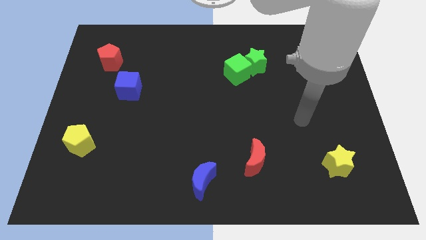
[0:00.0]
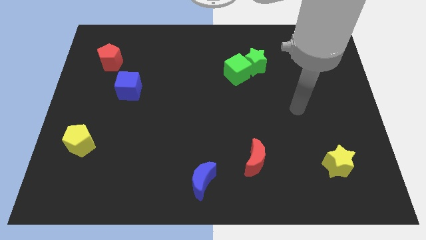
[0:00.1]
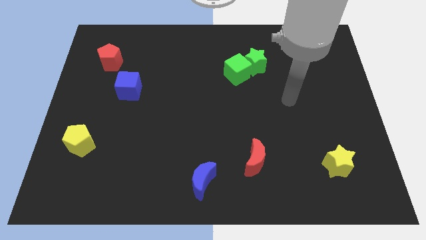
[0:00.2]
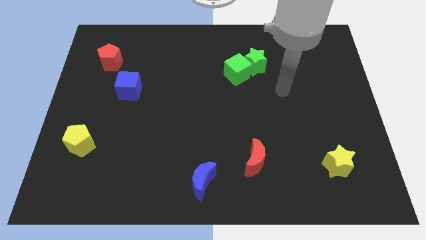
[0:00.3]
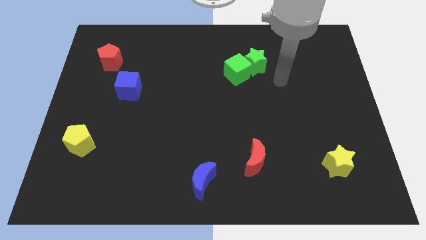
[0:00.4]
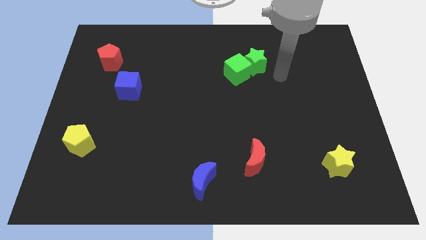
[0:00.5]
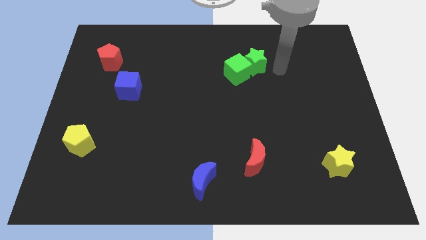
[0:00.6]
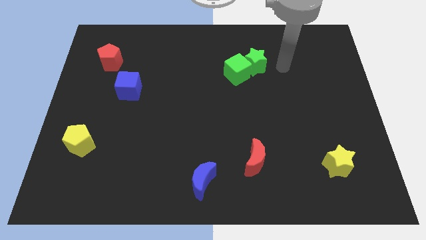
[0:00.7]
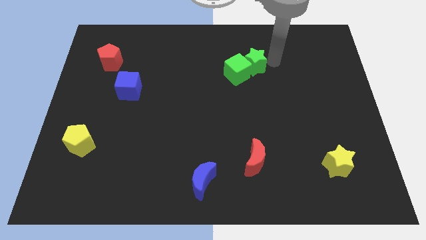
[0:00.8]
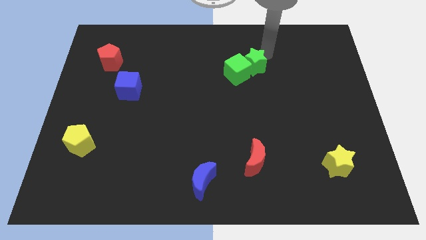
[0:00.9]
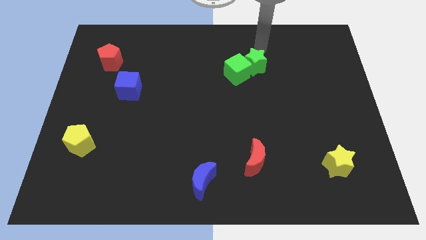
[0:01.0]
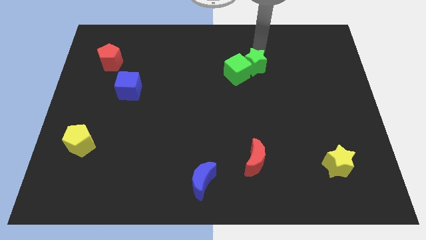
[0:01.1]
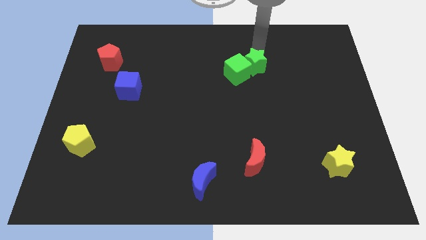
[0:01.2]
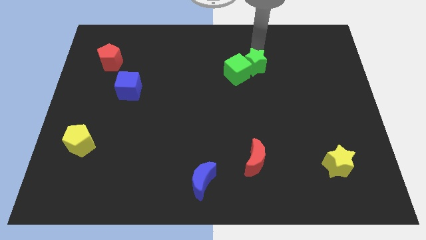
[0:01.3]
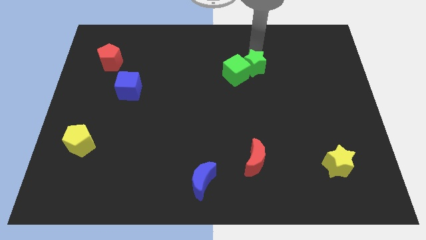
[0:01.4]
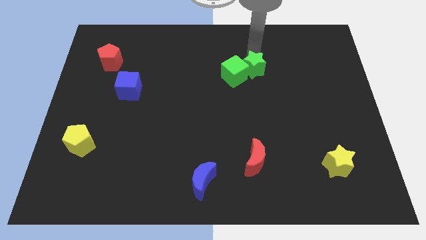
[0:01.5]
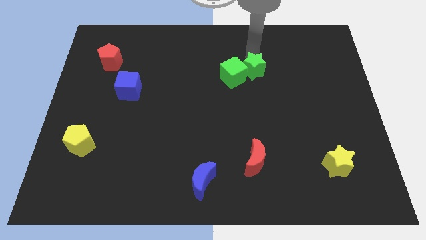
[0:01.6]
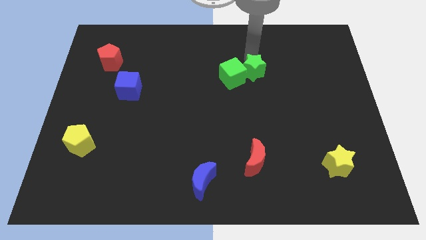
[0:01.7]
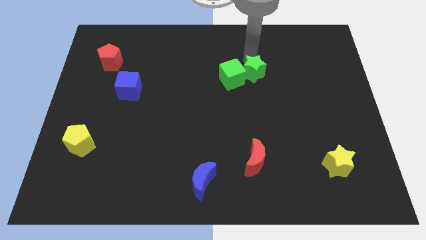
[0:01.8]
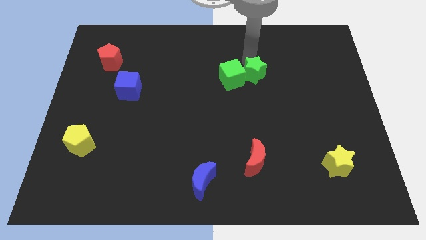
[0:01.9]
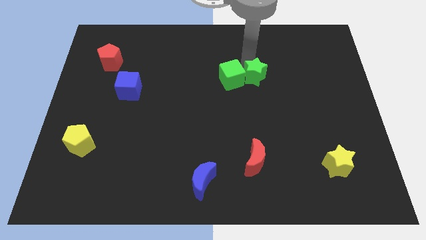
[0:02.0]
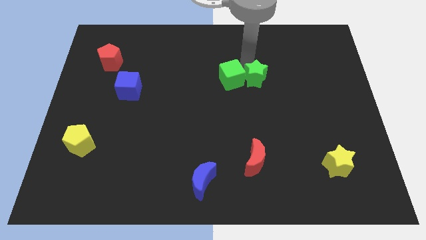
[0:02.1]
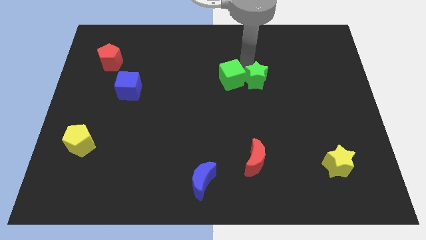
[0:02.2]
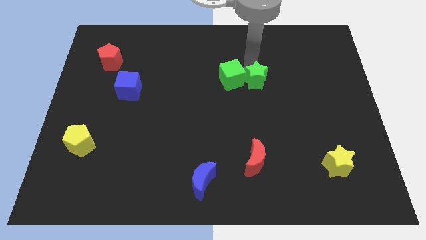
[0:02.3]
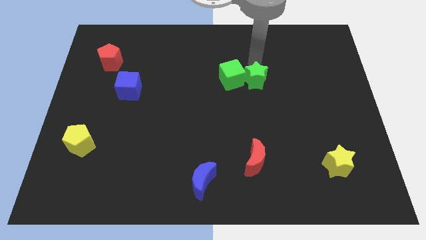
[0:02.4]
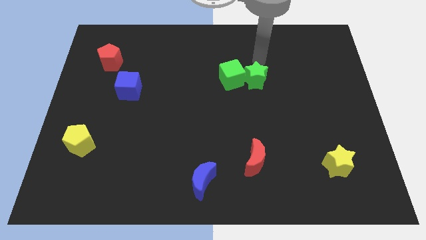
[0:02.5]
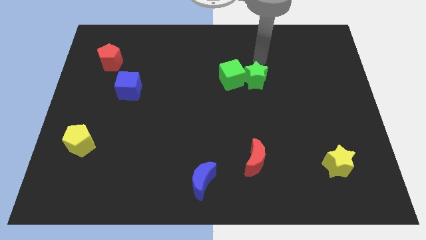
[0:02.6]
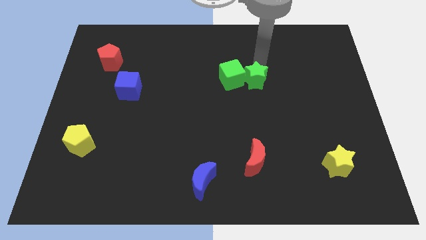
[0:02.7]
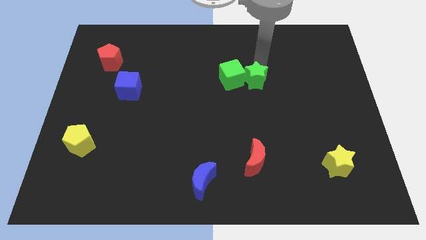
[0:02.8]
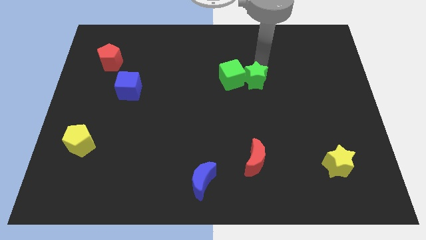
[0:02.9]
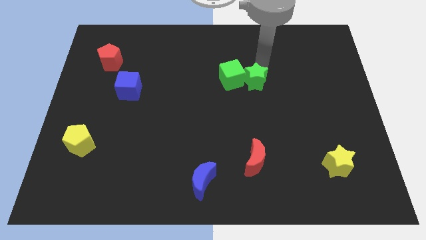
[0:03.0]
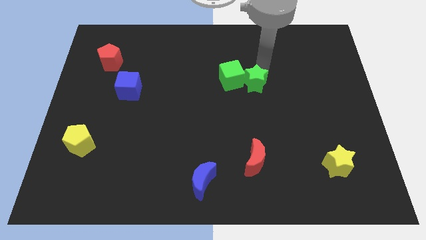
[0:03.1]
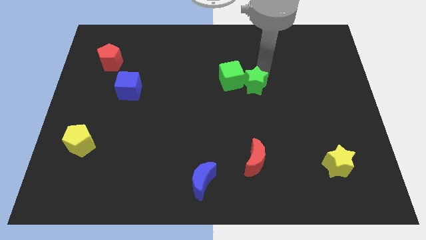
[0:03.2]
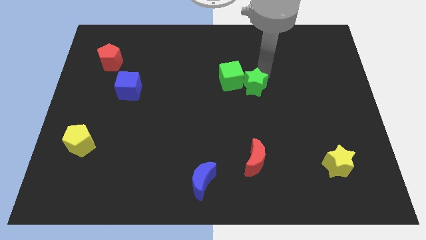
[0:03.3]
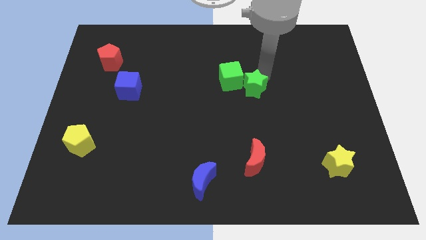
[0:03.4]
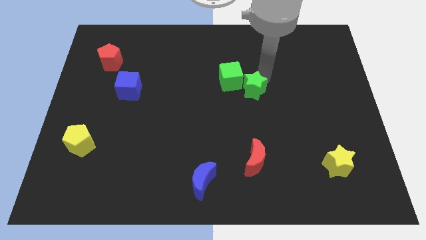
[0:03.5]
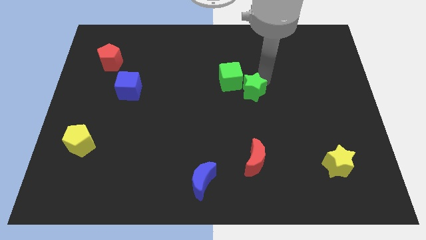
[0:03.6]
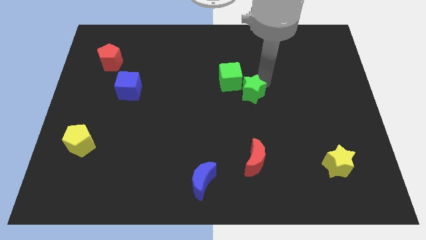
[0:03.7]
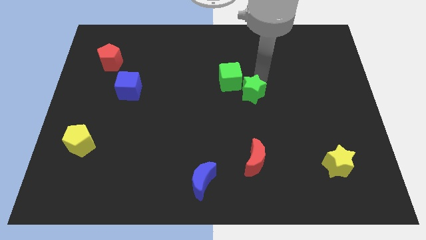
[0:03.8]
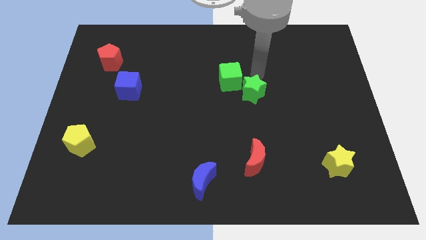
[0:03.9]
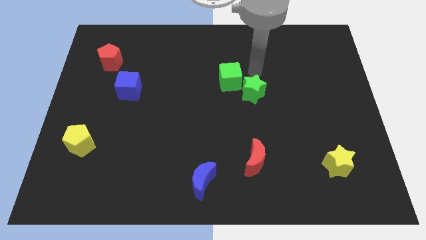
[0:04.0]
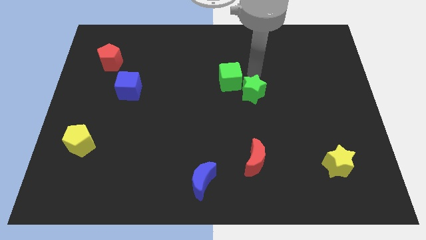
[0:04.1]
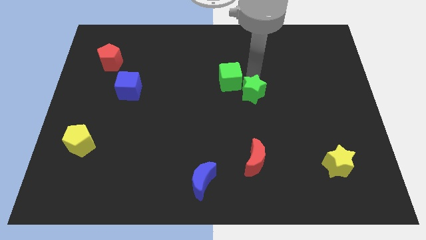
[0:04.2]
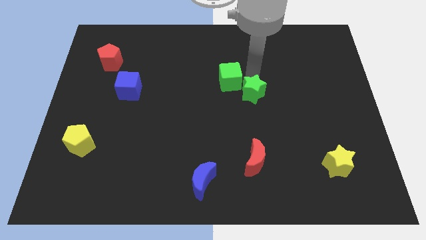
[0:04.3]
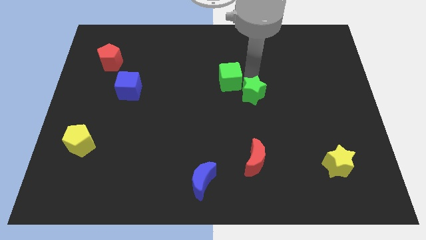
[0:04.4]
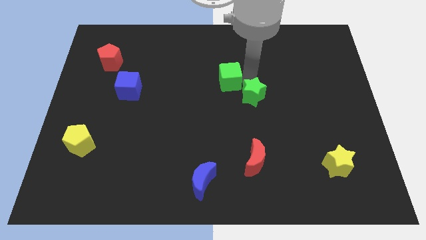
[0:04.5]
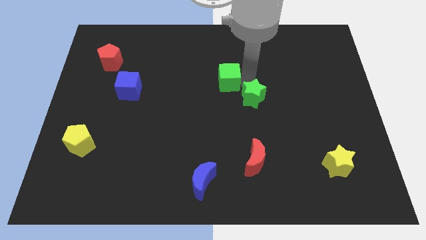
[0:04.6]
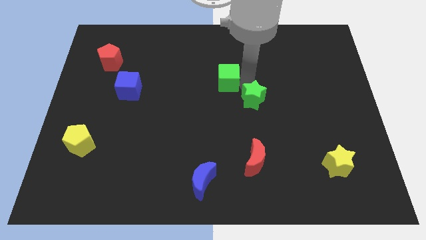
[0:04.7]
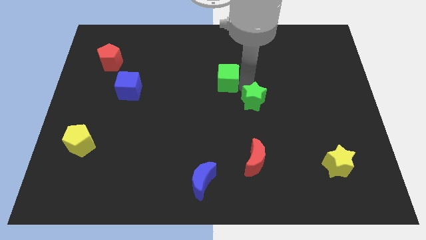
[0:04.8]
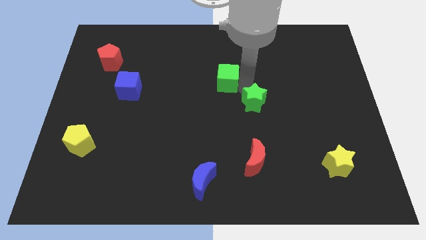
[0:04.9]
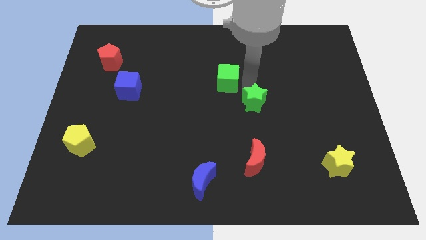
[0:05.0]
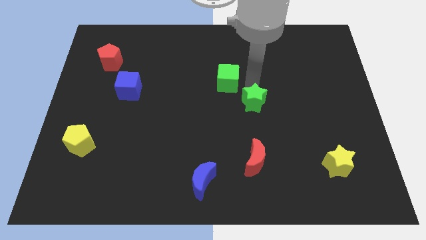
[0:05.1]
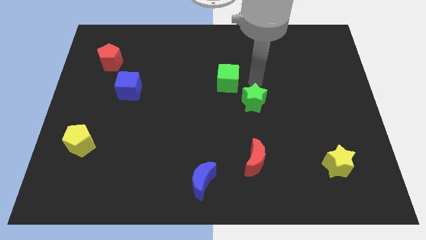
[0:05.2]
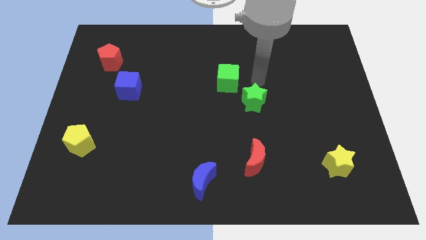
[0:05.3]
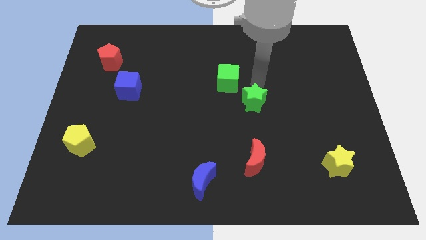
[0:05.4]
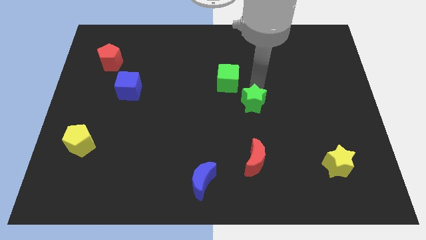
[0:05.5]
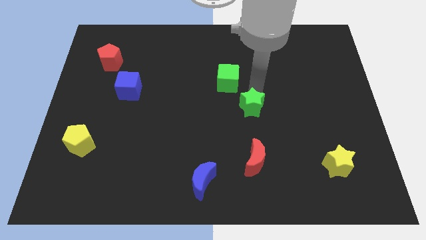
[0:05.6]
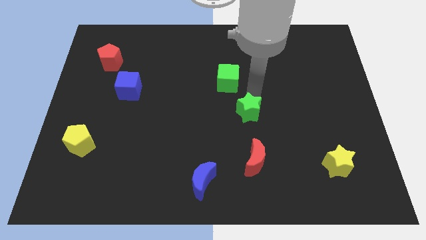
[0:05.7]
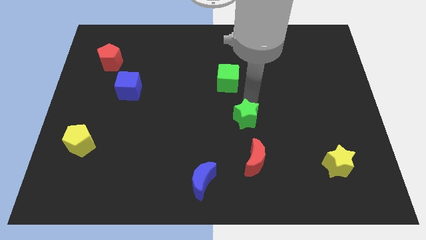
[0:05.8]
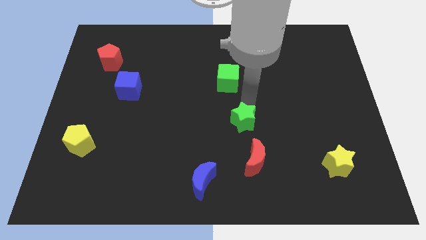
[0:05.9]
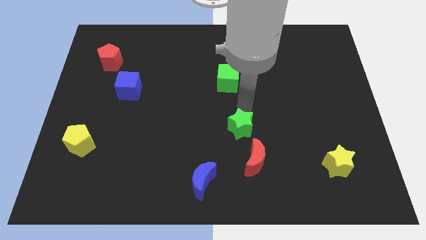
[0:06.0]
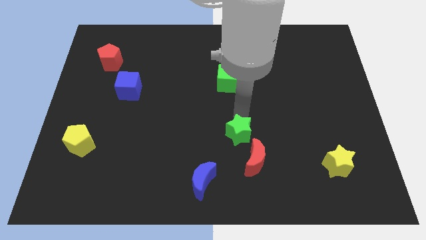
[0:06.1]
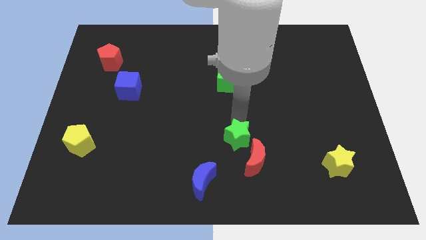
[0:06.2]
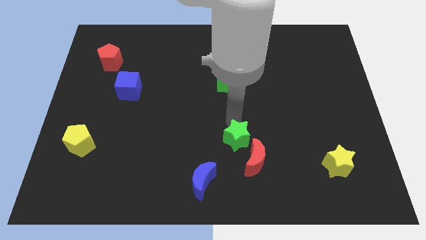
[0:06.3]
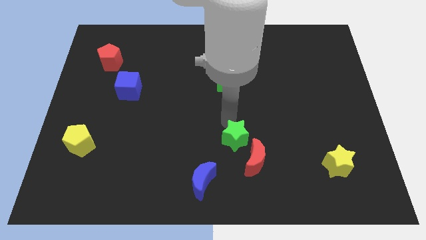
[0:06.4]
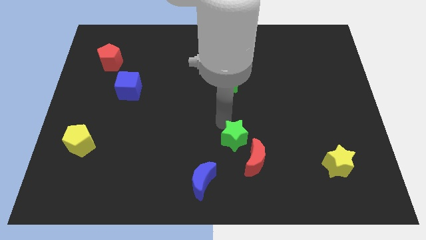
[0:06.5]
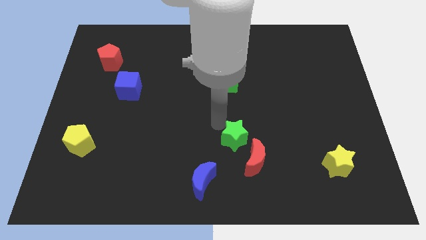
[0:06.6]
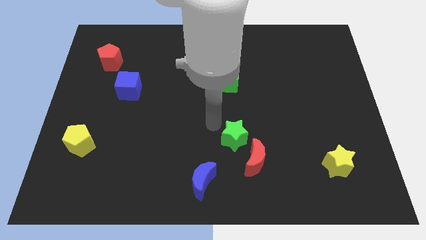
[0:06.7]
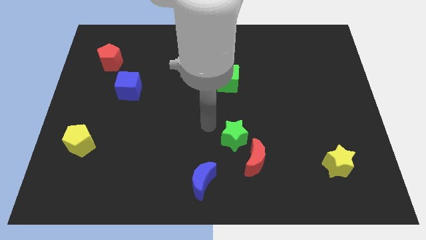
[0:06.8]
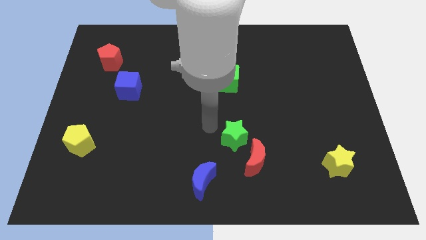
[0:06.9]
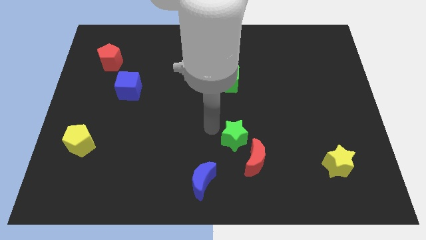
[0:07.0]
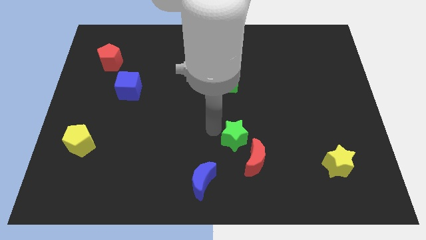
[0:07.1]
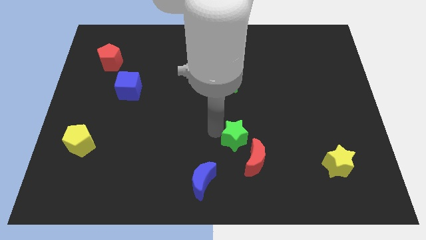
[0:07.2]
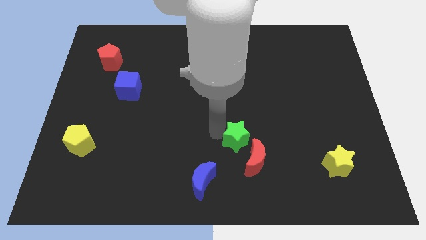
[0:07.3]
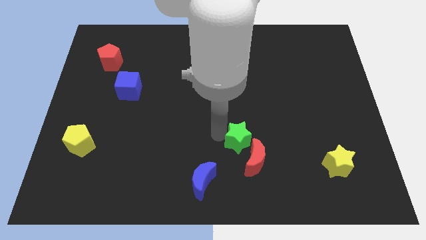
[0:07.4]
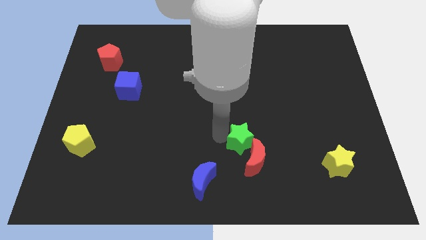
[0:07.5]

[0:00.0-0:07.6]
push the green star to the red moon
